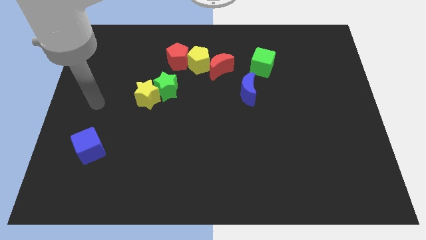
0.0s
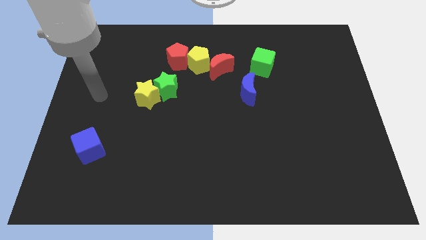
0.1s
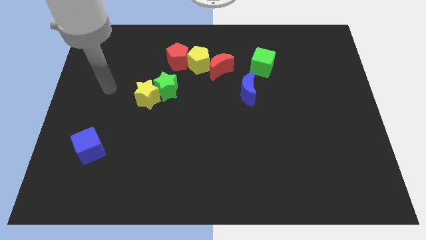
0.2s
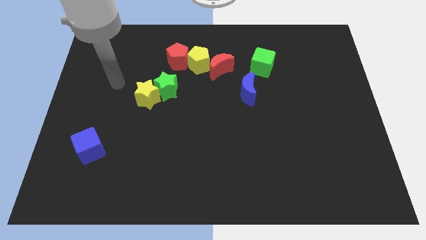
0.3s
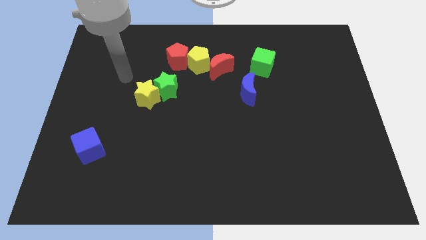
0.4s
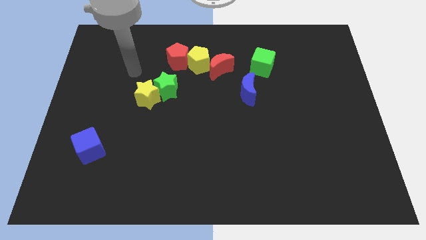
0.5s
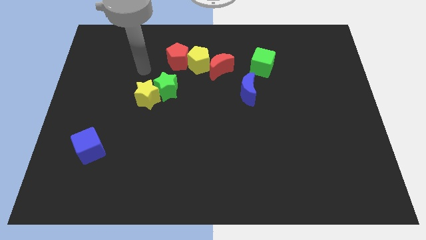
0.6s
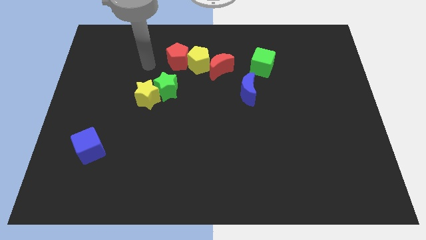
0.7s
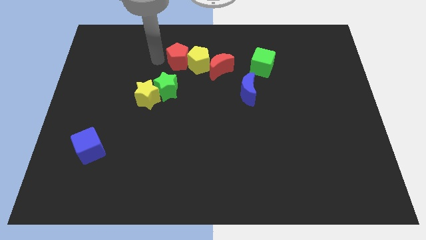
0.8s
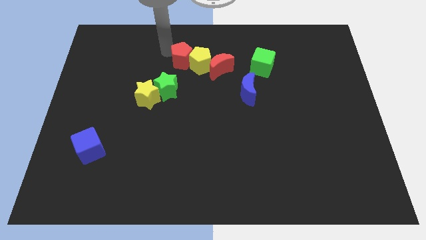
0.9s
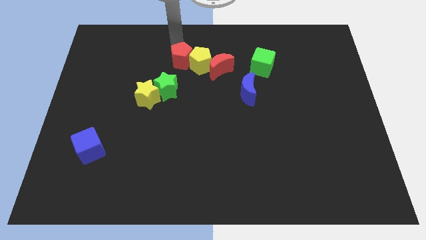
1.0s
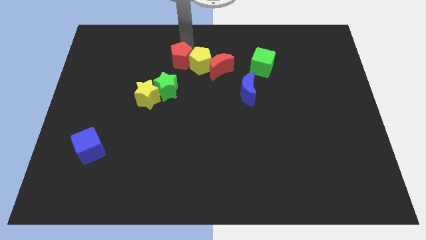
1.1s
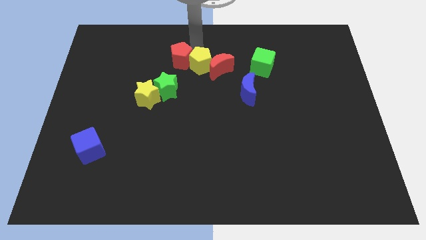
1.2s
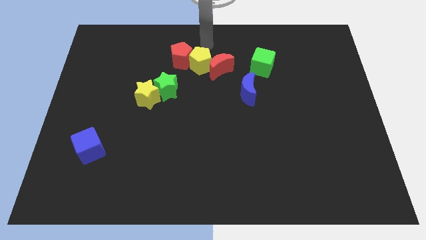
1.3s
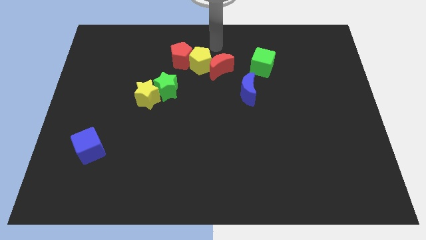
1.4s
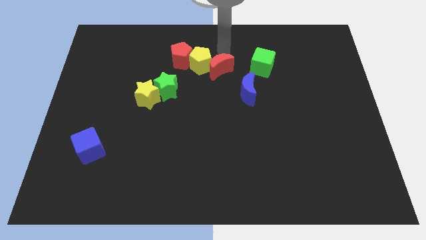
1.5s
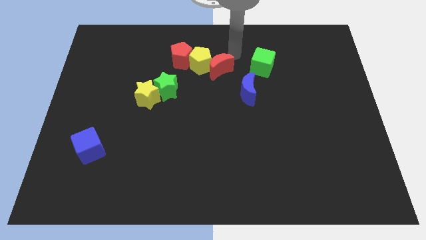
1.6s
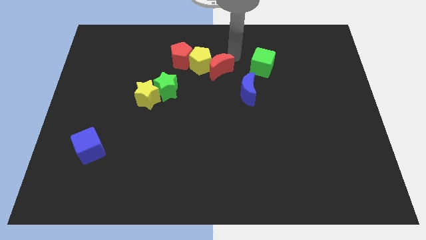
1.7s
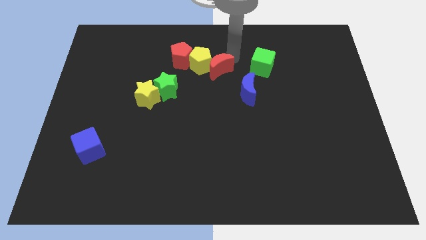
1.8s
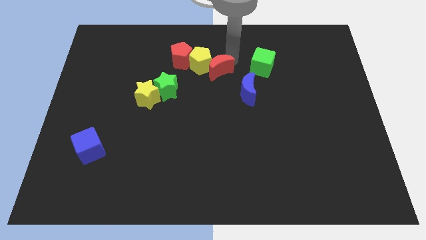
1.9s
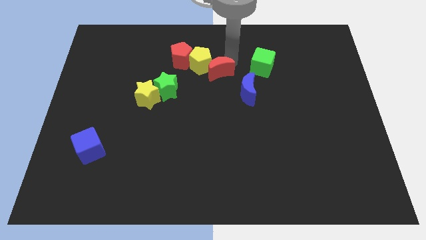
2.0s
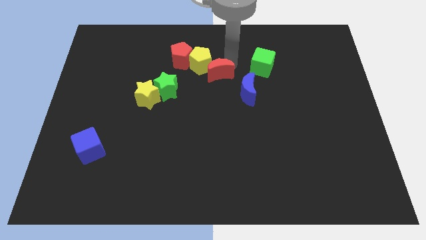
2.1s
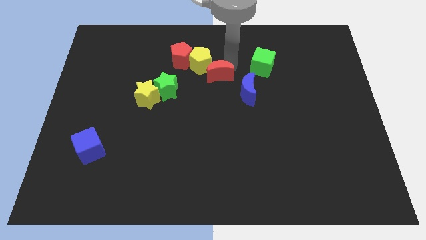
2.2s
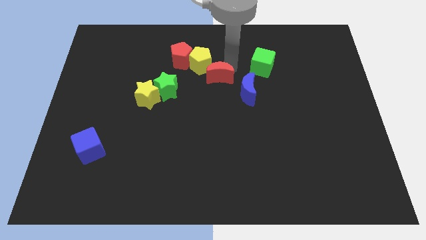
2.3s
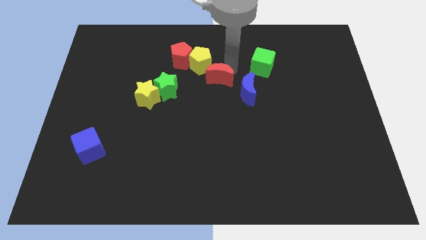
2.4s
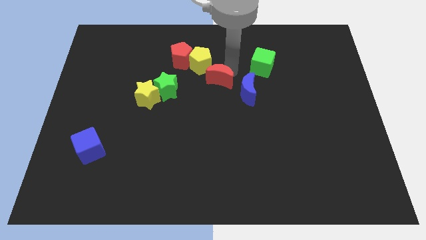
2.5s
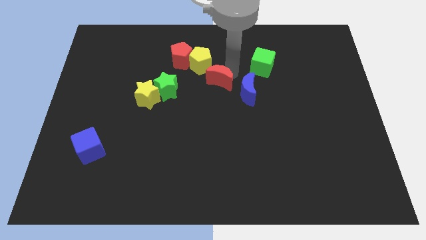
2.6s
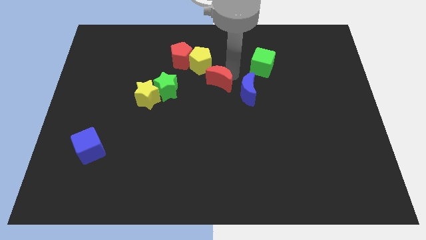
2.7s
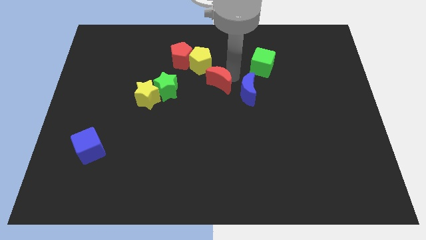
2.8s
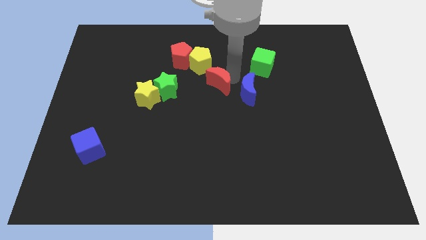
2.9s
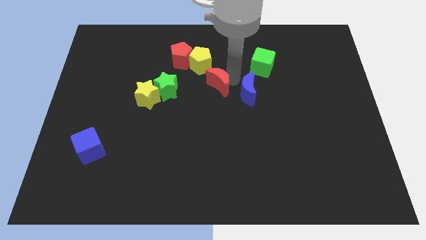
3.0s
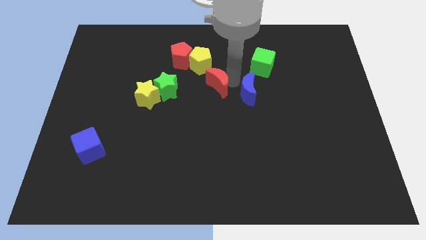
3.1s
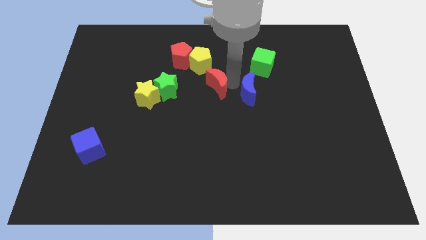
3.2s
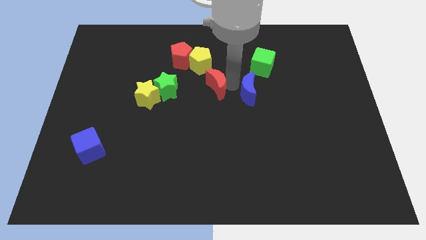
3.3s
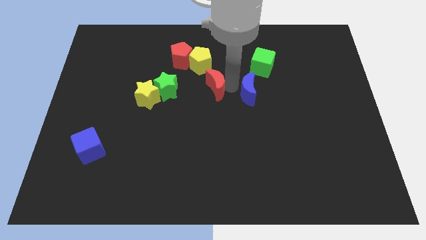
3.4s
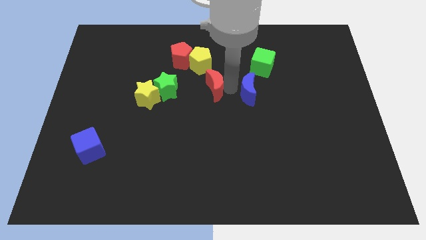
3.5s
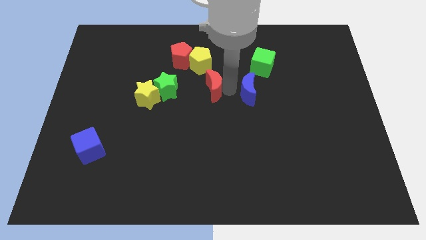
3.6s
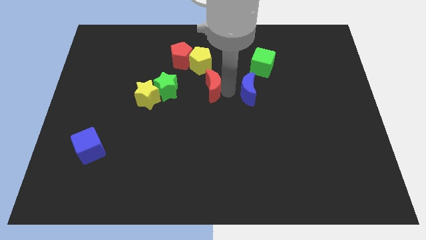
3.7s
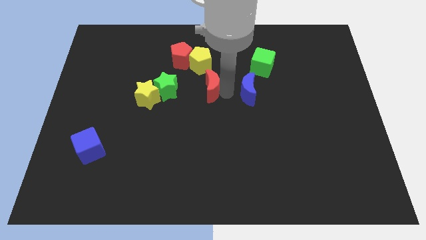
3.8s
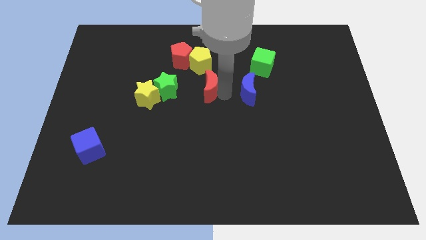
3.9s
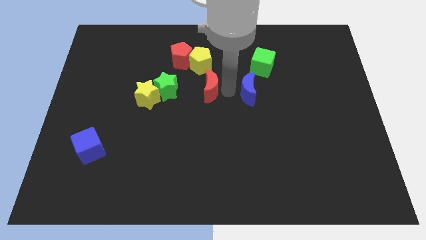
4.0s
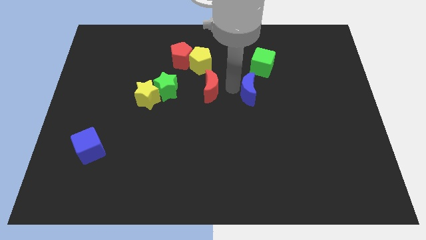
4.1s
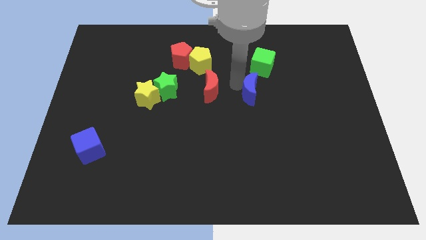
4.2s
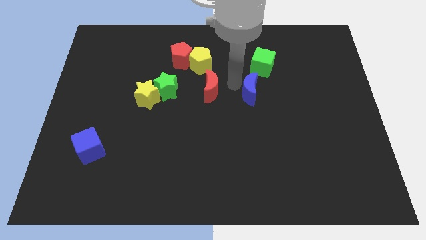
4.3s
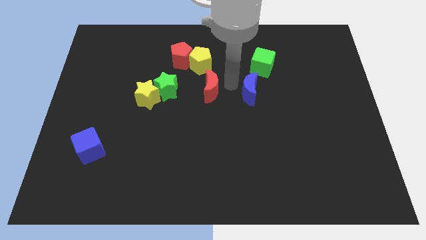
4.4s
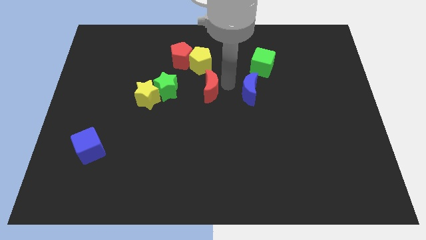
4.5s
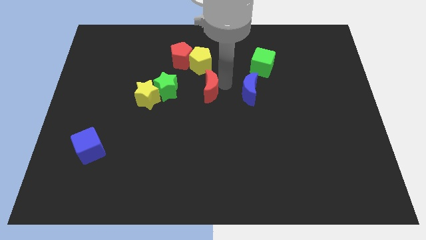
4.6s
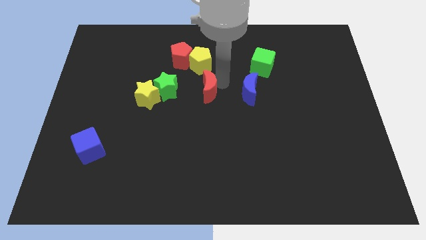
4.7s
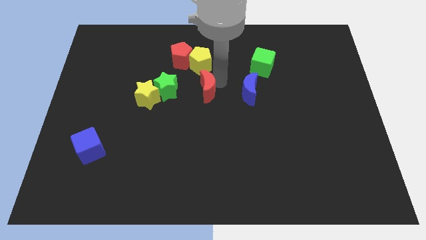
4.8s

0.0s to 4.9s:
move the red moon diagonally down and left somewhat

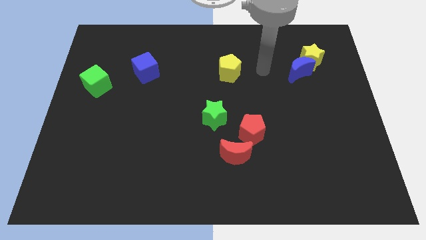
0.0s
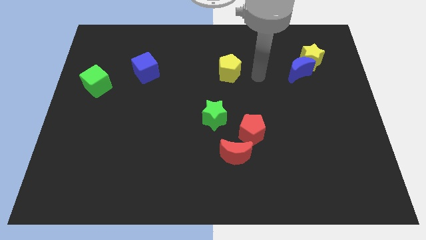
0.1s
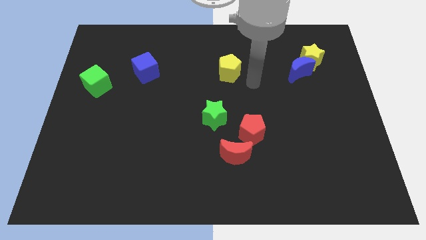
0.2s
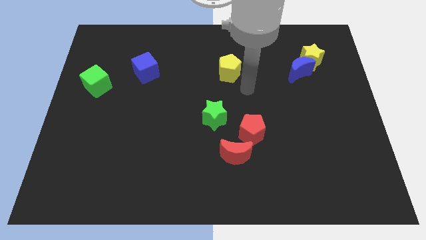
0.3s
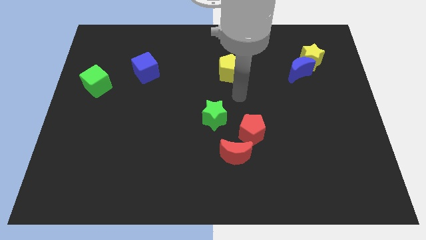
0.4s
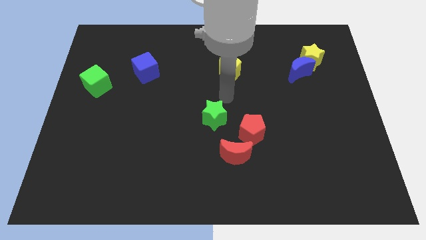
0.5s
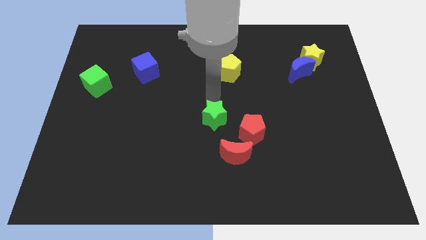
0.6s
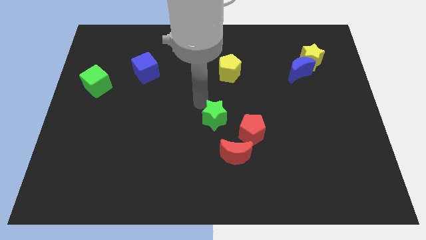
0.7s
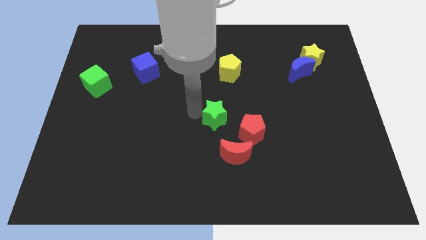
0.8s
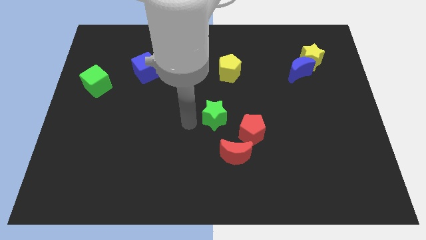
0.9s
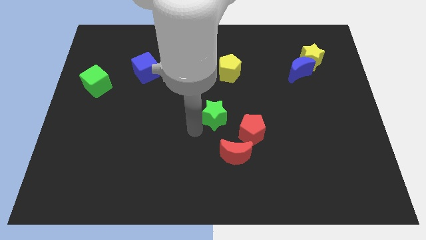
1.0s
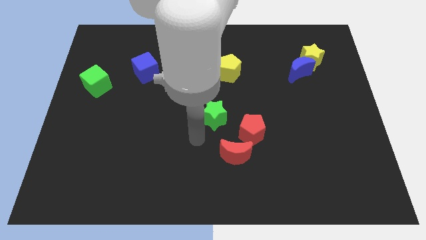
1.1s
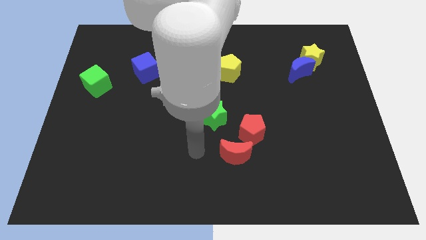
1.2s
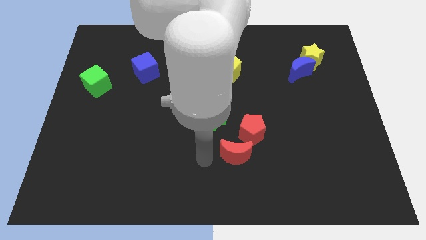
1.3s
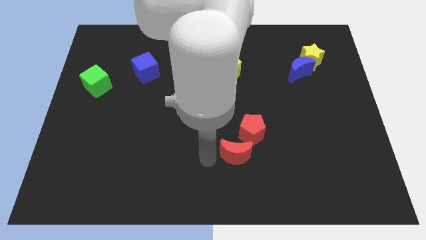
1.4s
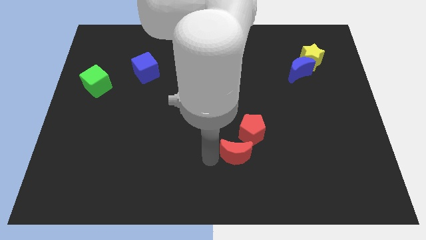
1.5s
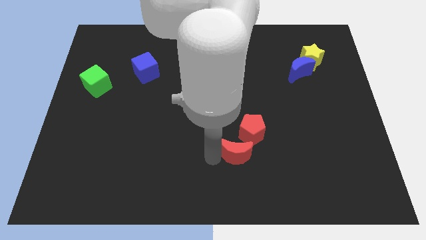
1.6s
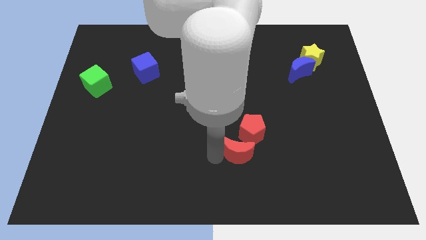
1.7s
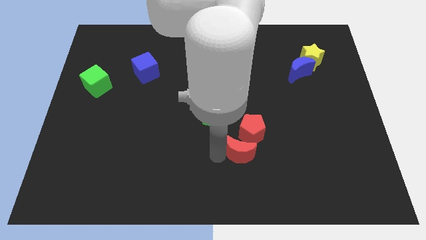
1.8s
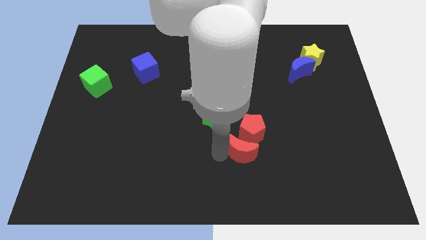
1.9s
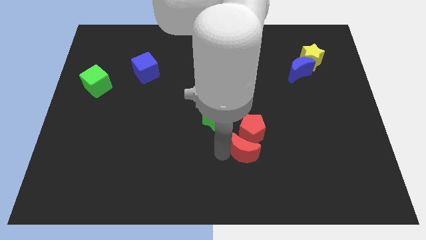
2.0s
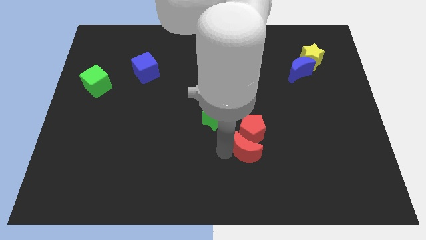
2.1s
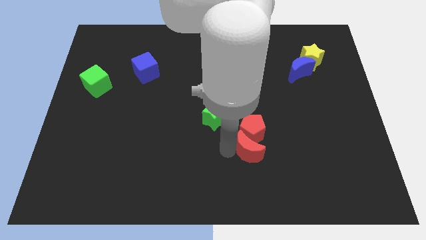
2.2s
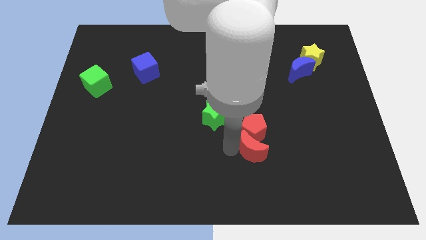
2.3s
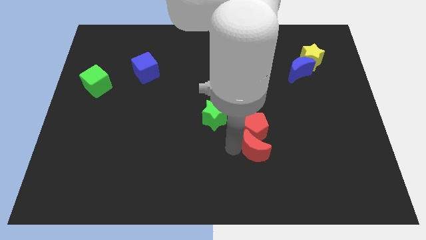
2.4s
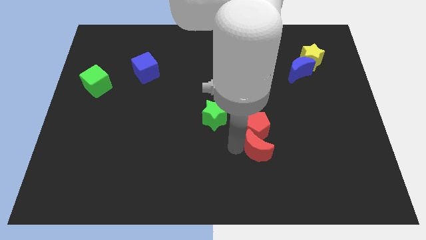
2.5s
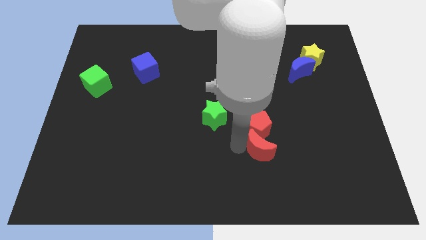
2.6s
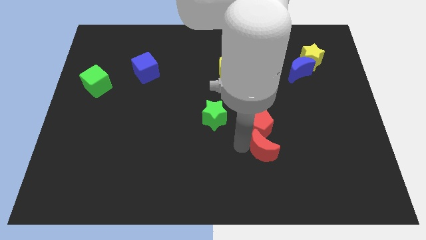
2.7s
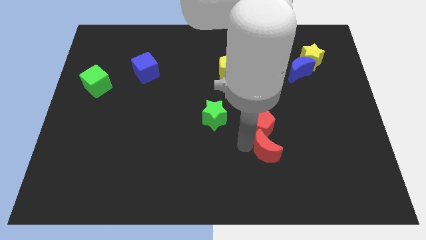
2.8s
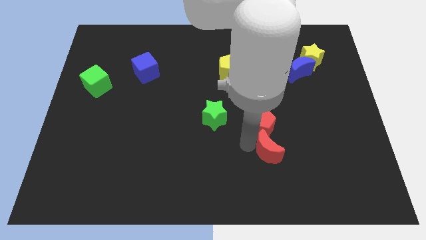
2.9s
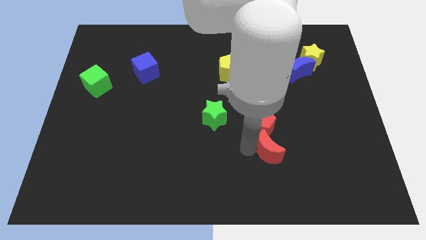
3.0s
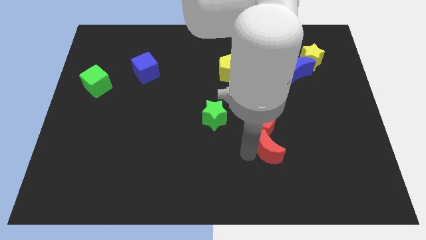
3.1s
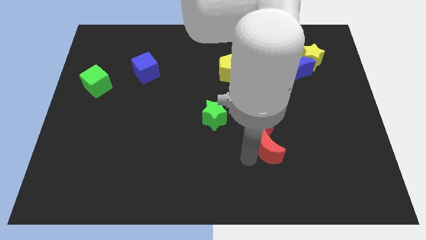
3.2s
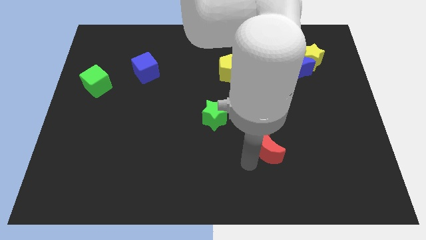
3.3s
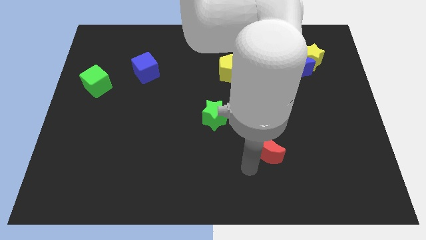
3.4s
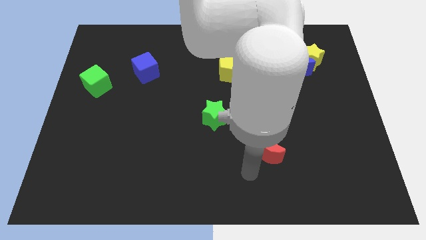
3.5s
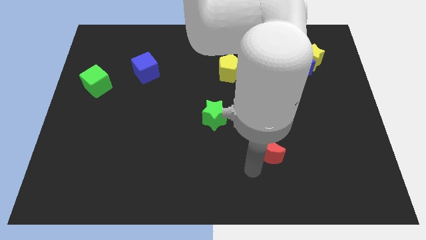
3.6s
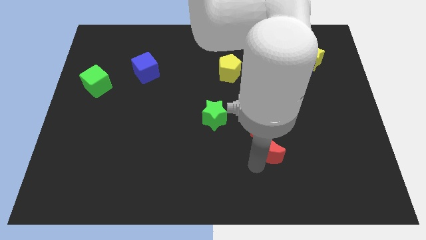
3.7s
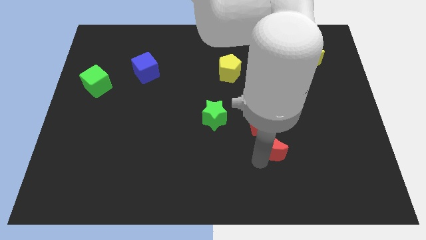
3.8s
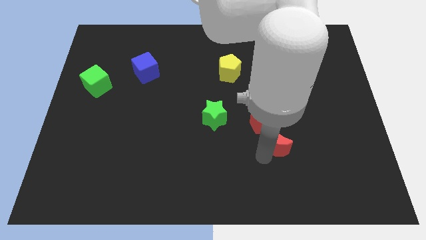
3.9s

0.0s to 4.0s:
slide the red moon a bit diagonally up and right
